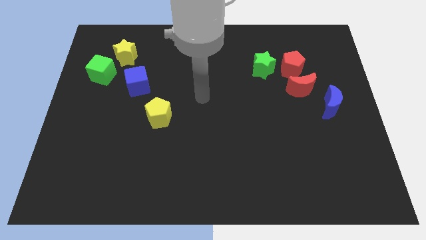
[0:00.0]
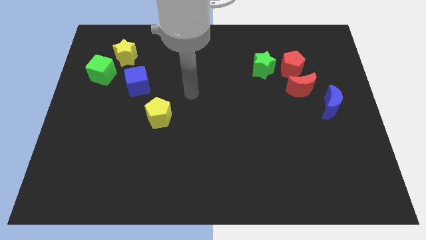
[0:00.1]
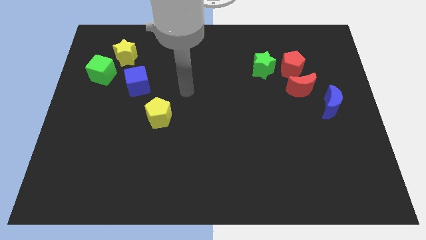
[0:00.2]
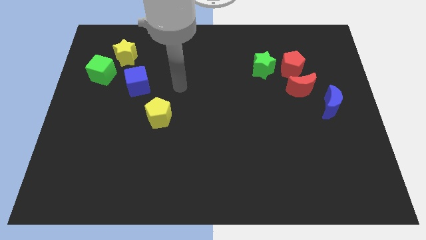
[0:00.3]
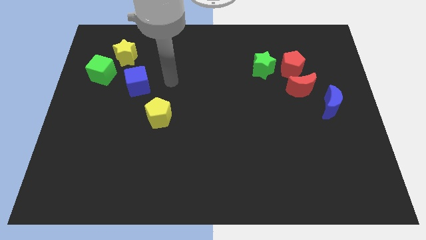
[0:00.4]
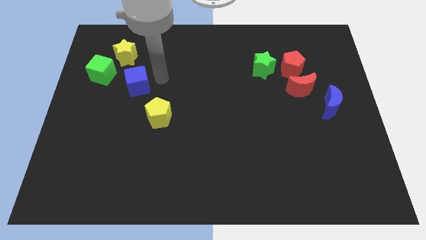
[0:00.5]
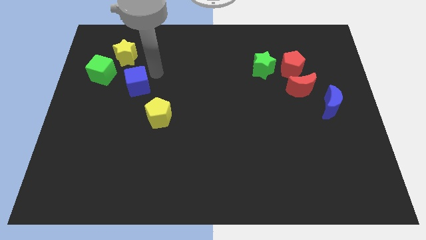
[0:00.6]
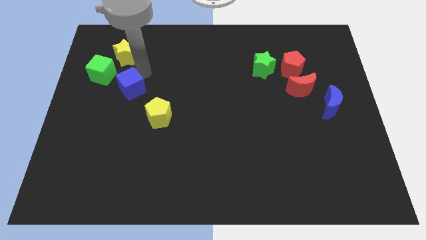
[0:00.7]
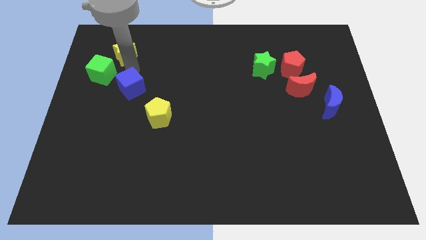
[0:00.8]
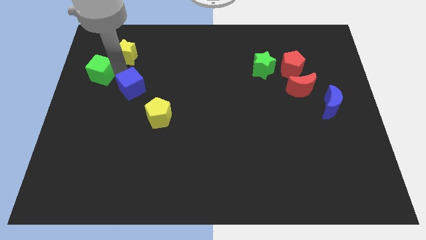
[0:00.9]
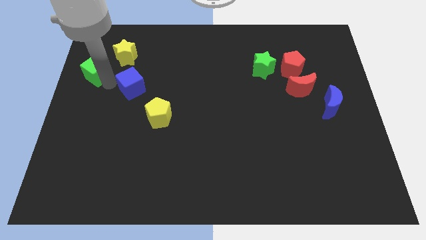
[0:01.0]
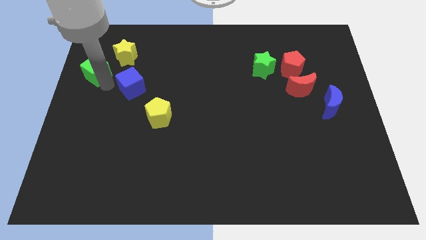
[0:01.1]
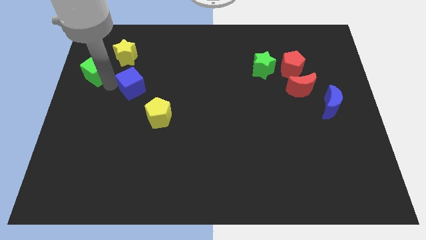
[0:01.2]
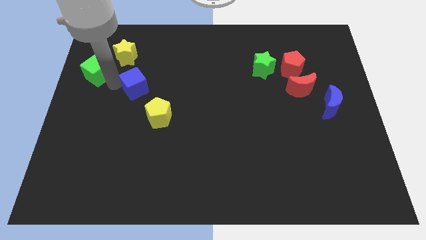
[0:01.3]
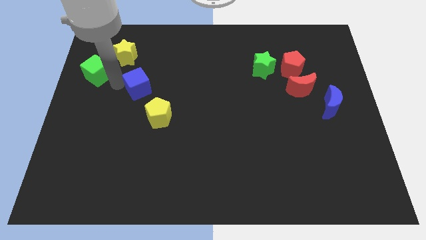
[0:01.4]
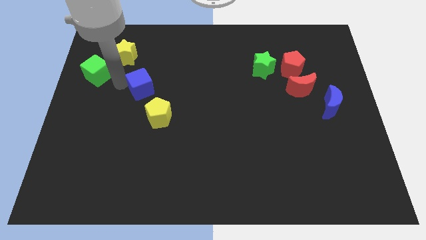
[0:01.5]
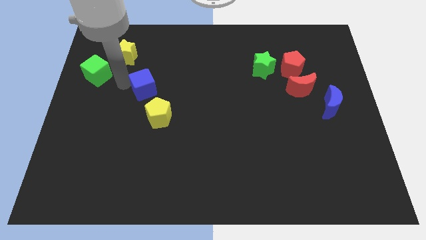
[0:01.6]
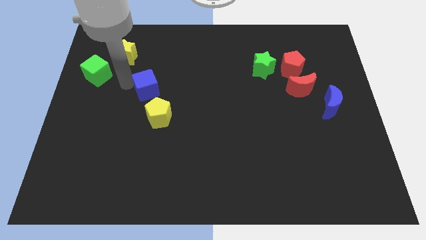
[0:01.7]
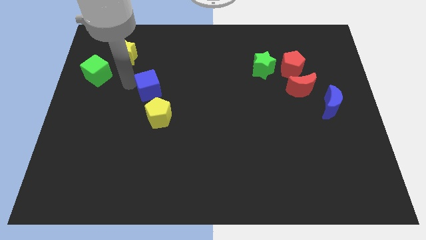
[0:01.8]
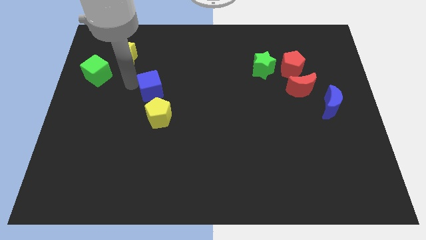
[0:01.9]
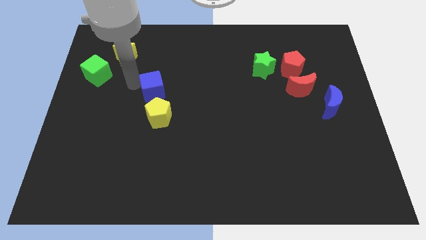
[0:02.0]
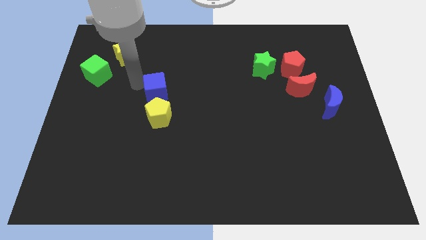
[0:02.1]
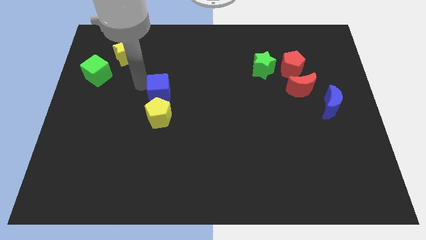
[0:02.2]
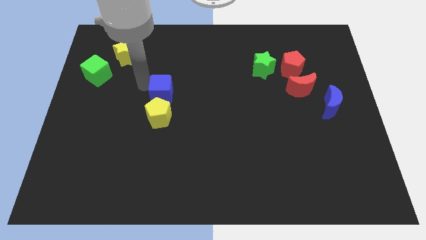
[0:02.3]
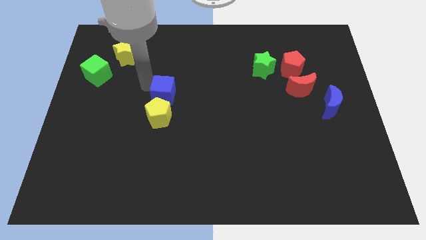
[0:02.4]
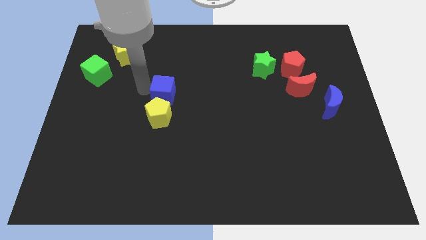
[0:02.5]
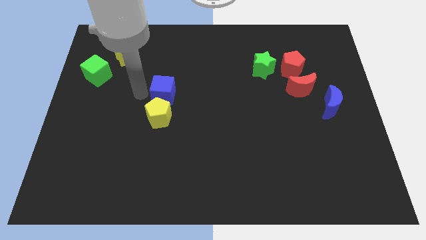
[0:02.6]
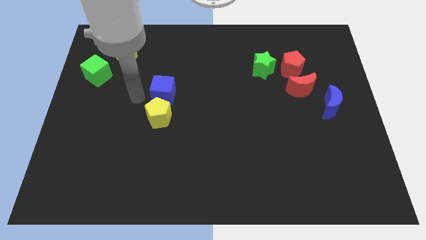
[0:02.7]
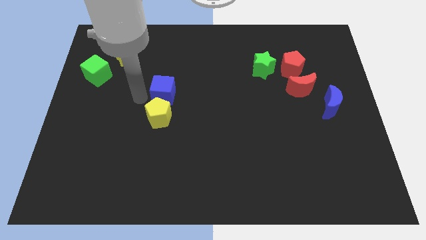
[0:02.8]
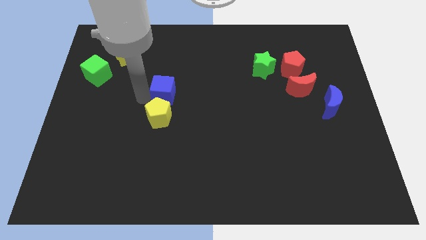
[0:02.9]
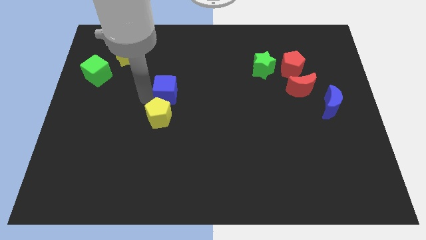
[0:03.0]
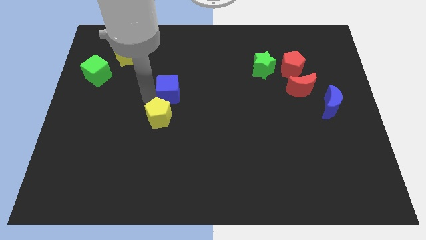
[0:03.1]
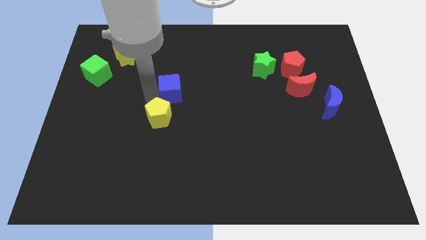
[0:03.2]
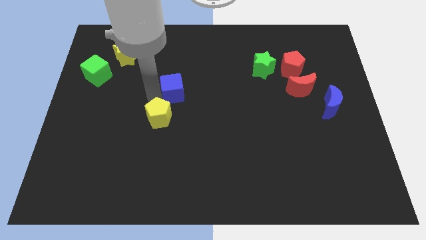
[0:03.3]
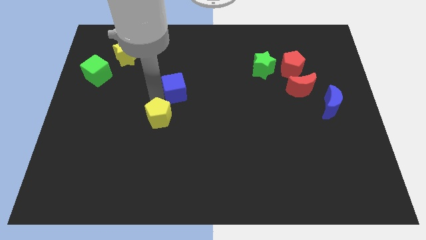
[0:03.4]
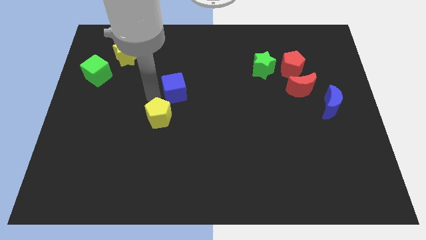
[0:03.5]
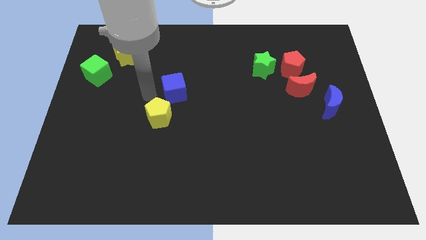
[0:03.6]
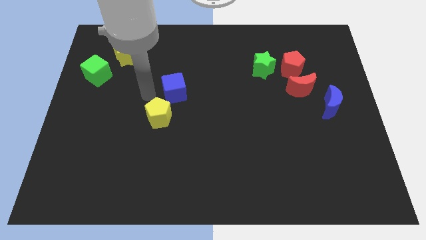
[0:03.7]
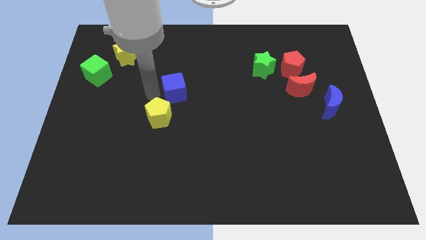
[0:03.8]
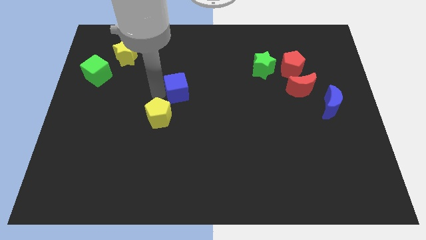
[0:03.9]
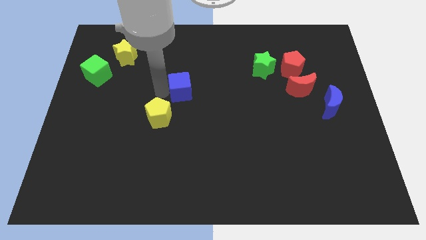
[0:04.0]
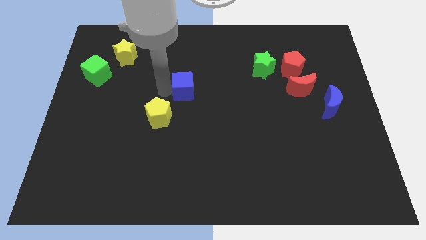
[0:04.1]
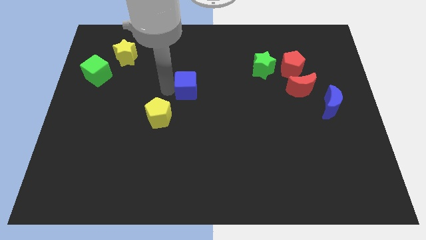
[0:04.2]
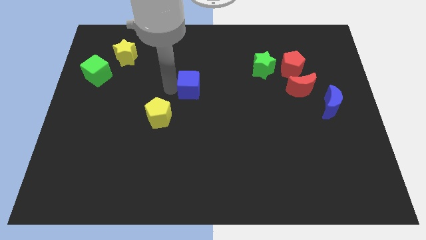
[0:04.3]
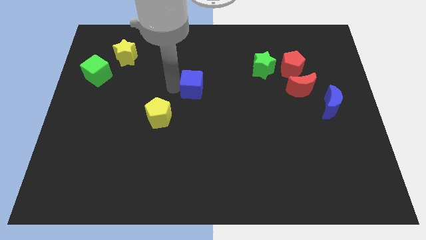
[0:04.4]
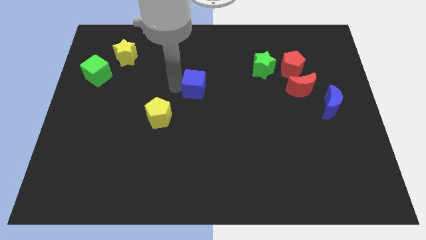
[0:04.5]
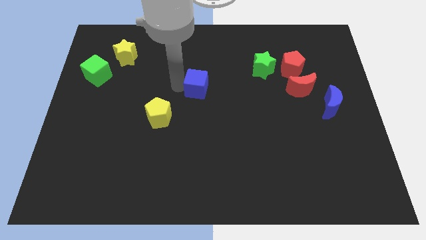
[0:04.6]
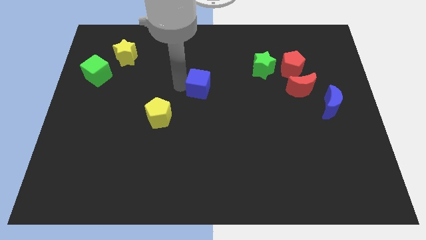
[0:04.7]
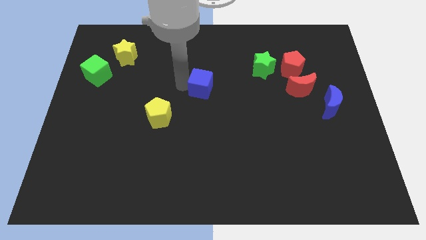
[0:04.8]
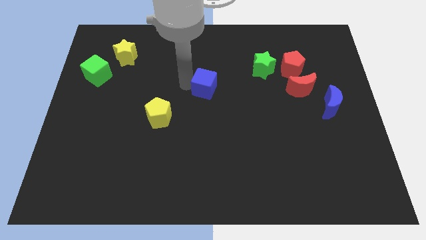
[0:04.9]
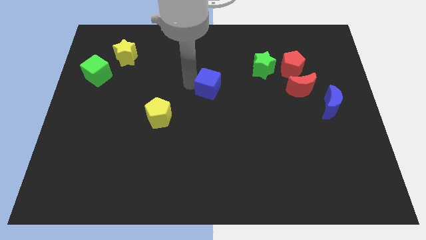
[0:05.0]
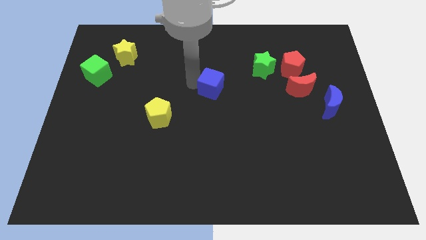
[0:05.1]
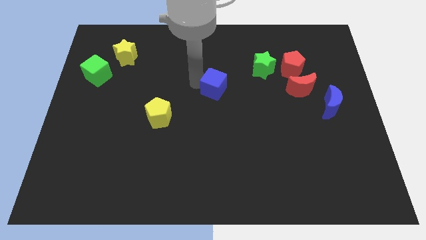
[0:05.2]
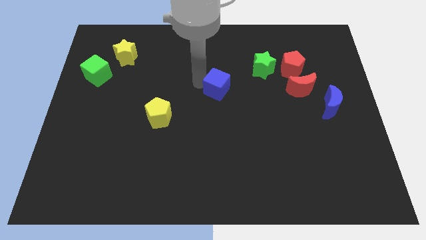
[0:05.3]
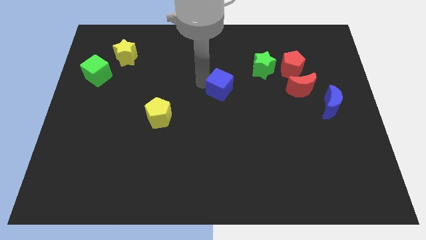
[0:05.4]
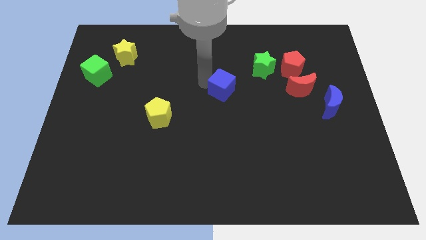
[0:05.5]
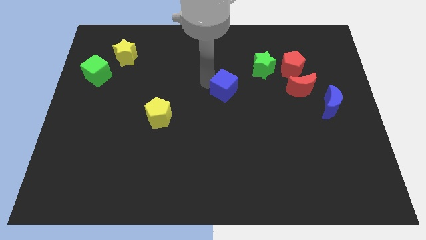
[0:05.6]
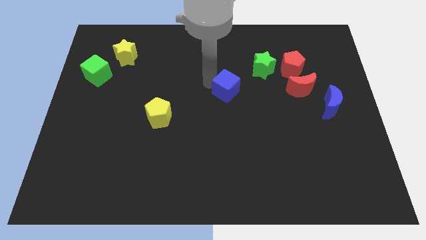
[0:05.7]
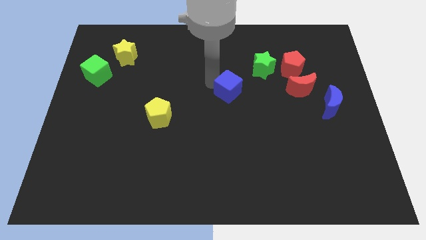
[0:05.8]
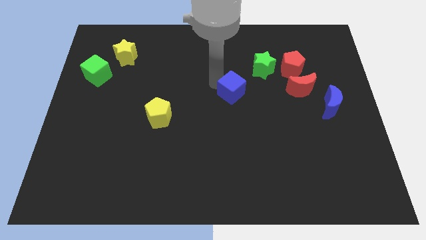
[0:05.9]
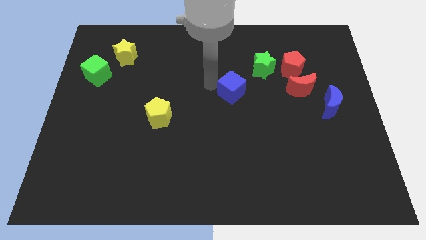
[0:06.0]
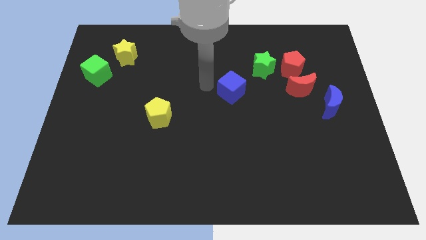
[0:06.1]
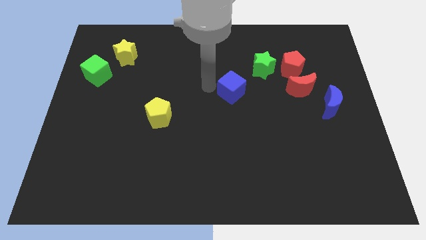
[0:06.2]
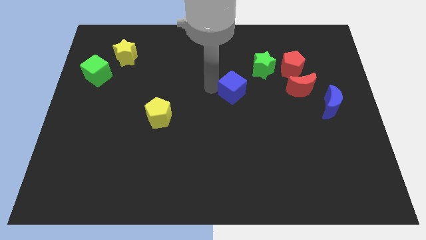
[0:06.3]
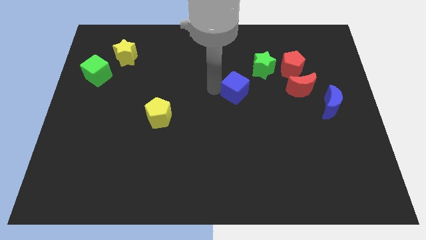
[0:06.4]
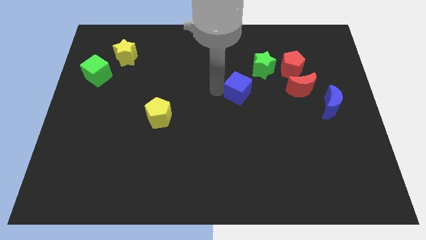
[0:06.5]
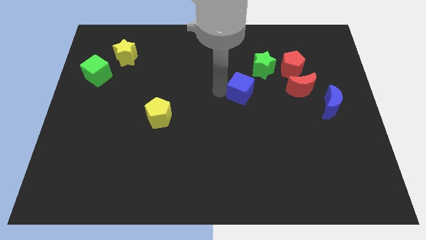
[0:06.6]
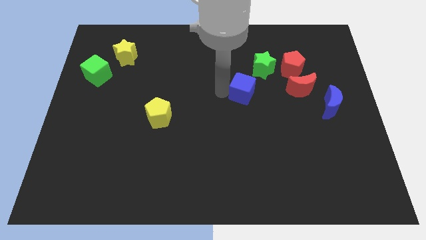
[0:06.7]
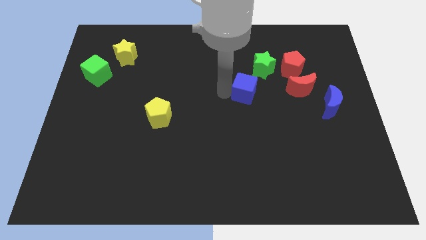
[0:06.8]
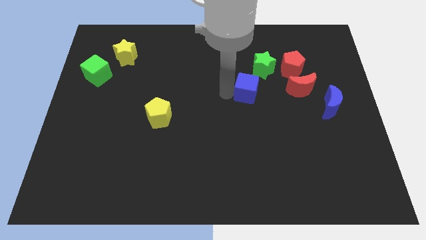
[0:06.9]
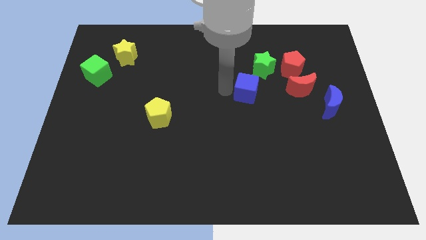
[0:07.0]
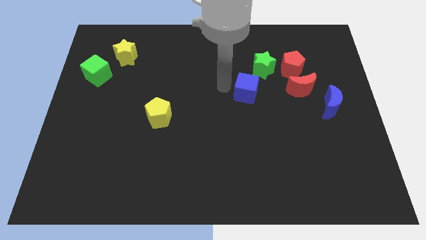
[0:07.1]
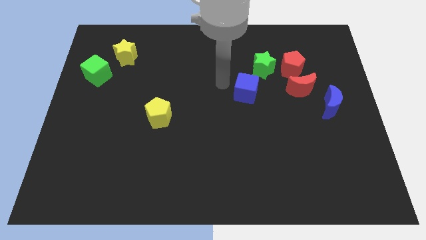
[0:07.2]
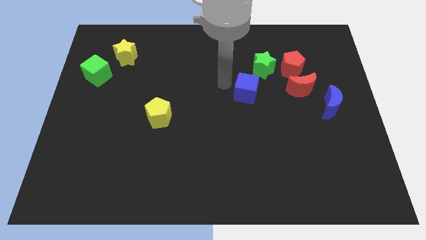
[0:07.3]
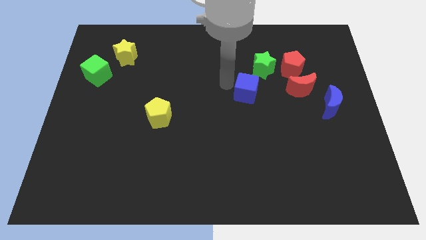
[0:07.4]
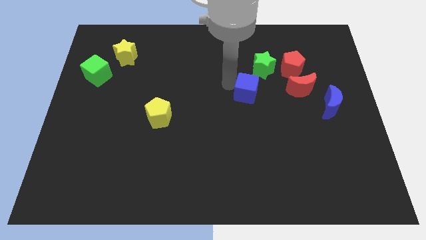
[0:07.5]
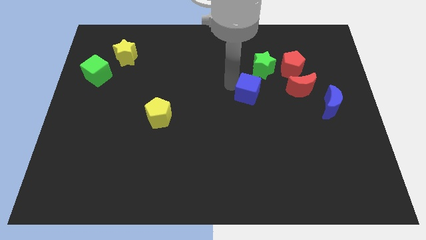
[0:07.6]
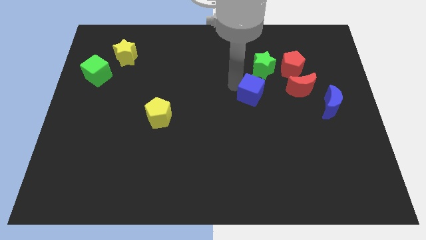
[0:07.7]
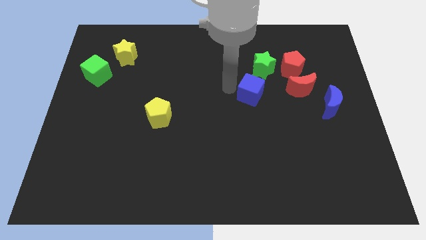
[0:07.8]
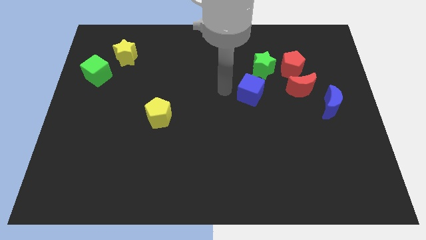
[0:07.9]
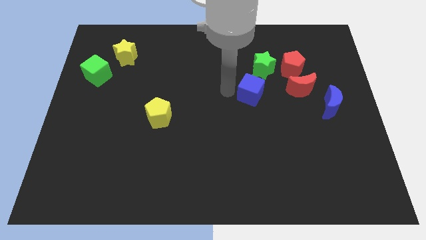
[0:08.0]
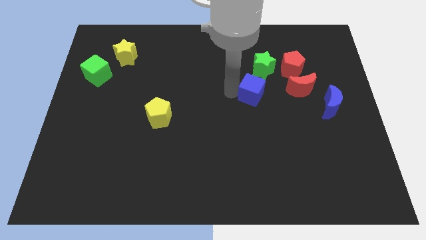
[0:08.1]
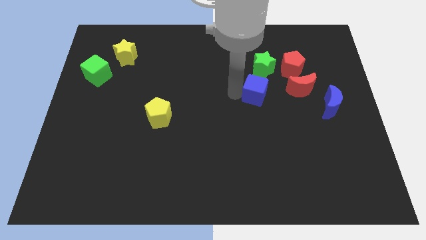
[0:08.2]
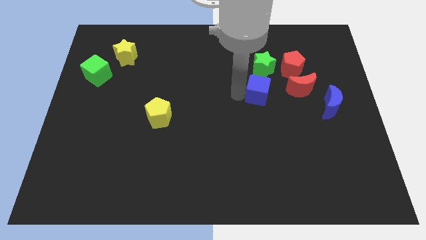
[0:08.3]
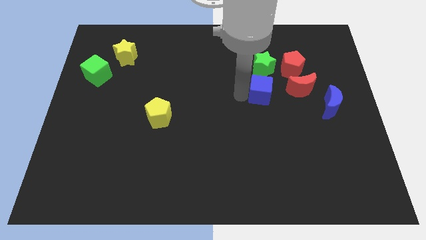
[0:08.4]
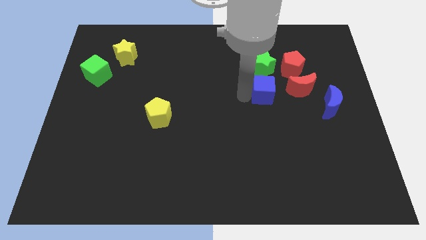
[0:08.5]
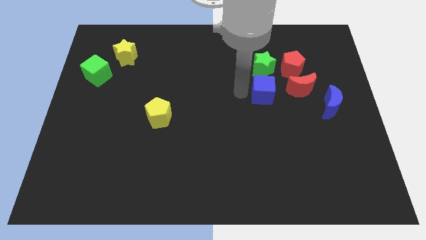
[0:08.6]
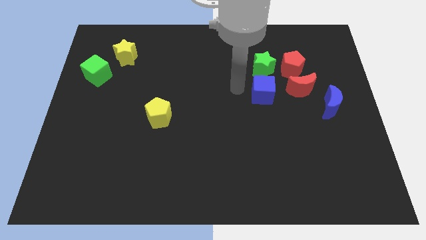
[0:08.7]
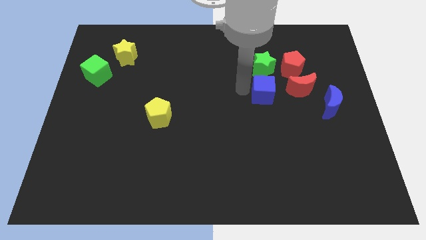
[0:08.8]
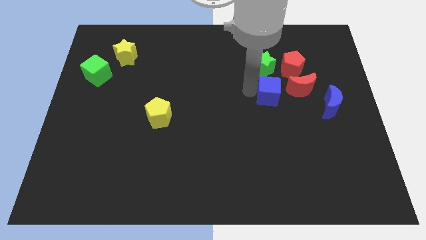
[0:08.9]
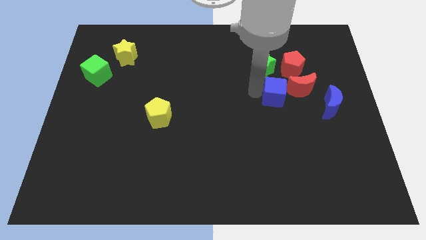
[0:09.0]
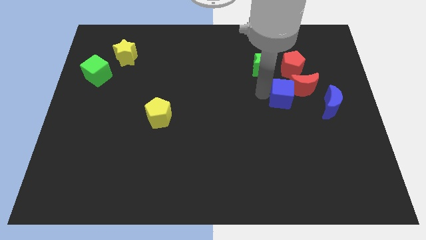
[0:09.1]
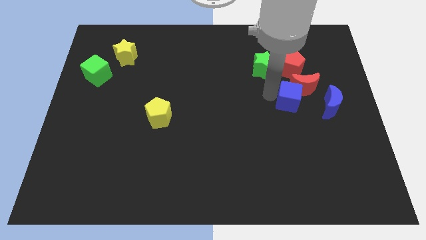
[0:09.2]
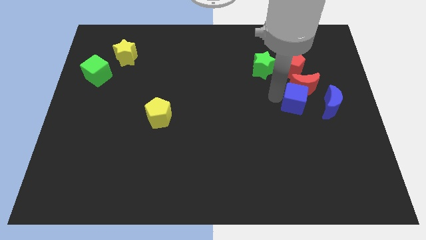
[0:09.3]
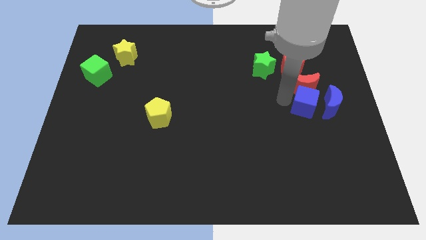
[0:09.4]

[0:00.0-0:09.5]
push the blue cube next to the blue moon
